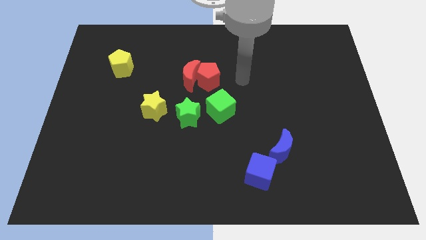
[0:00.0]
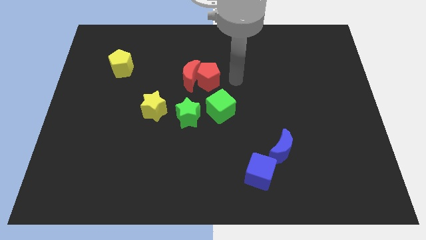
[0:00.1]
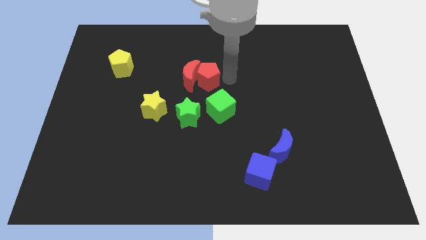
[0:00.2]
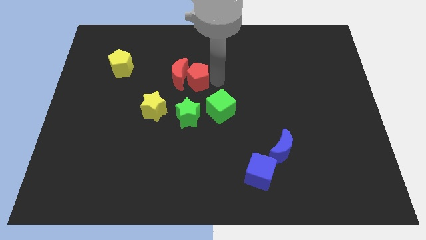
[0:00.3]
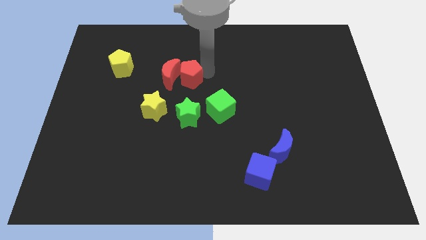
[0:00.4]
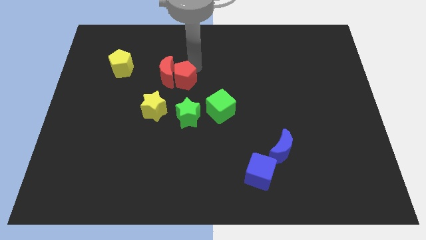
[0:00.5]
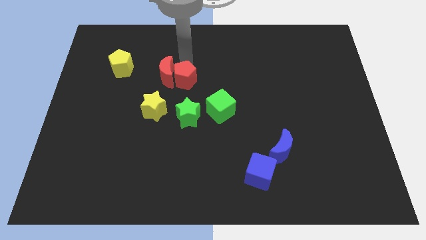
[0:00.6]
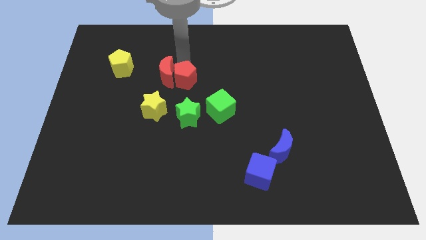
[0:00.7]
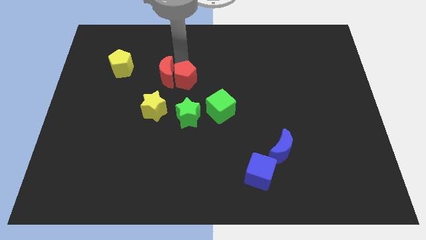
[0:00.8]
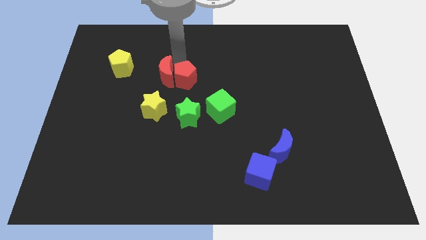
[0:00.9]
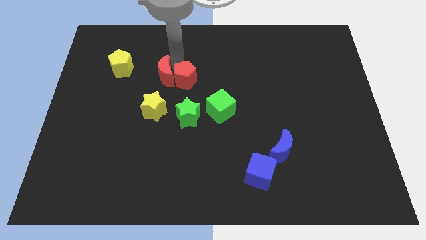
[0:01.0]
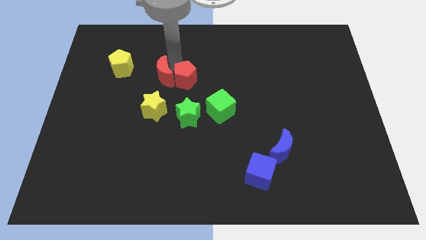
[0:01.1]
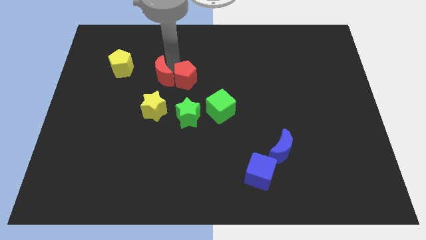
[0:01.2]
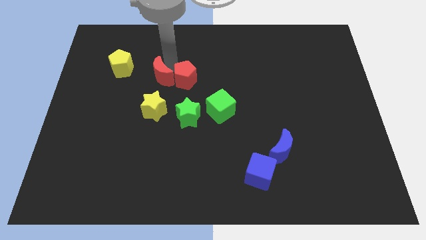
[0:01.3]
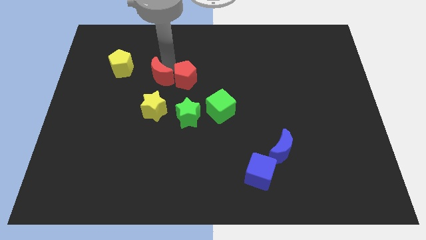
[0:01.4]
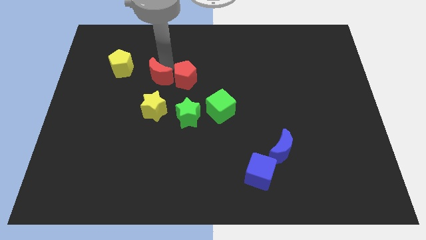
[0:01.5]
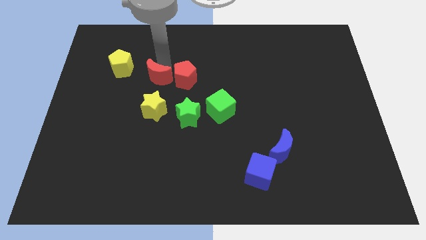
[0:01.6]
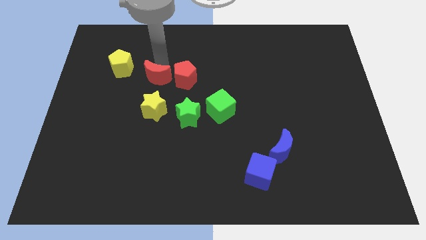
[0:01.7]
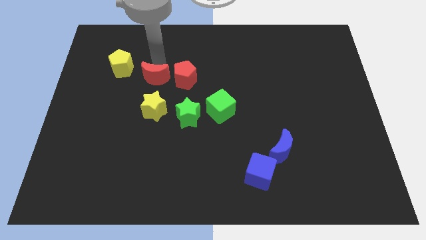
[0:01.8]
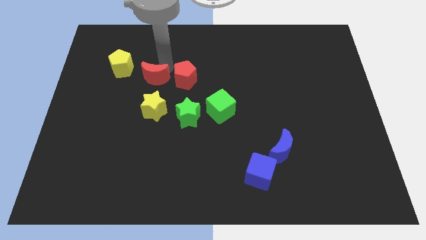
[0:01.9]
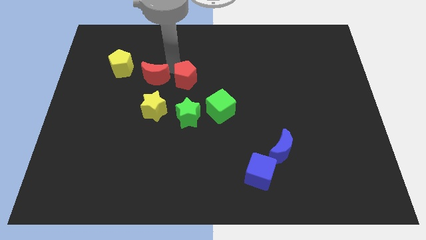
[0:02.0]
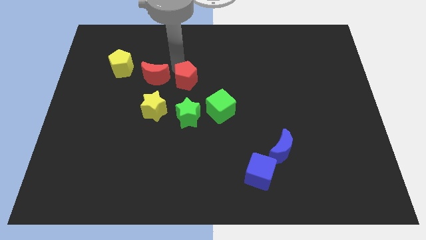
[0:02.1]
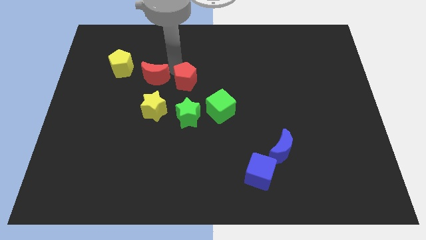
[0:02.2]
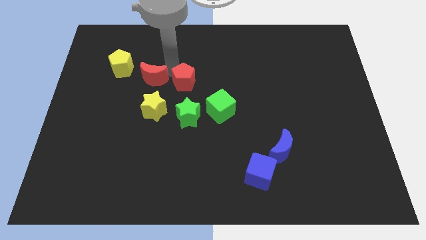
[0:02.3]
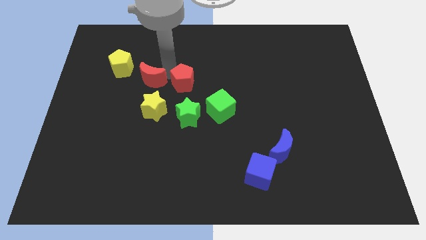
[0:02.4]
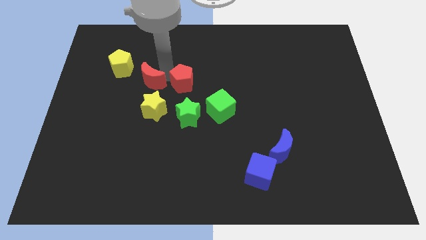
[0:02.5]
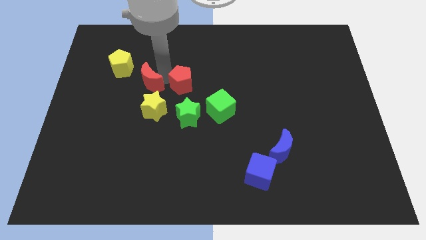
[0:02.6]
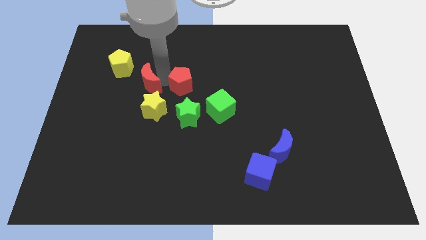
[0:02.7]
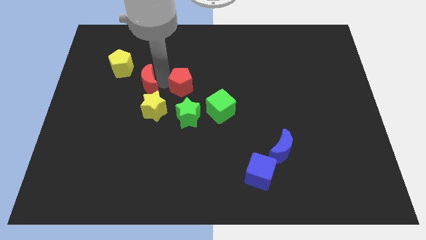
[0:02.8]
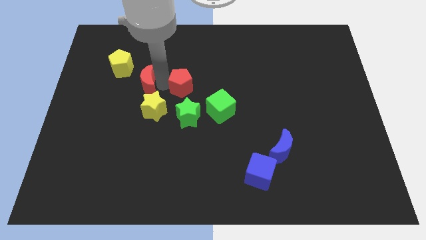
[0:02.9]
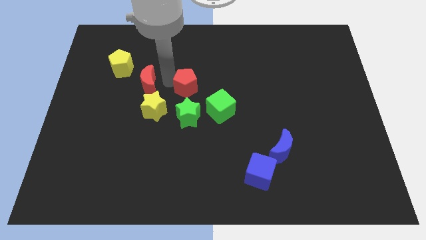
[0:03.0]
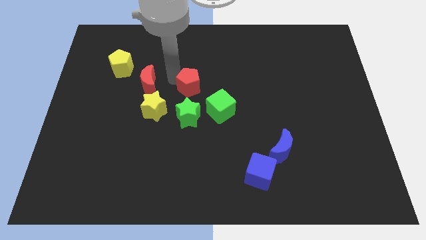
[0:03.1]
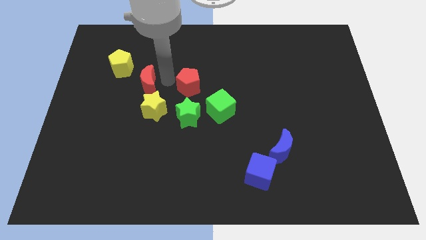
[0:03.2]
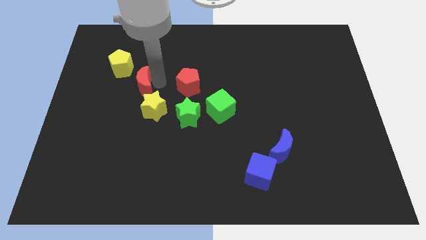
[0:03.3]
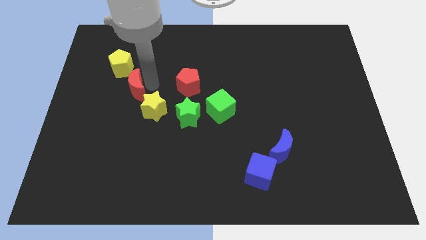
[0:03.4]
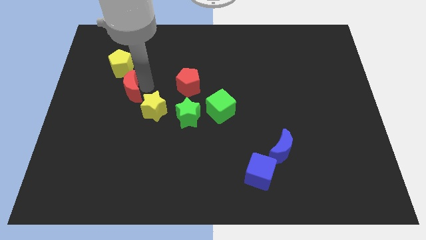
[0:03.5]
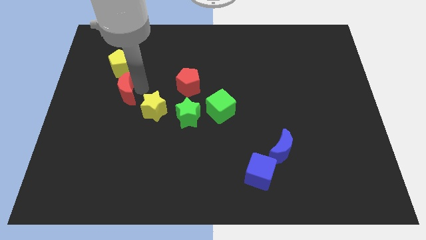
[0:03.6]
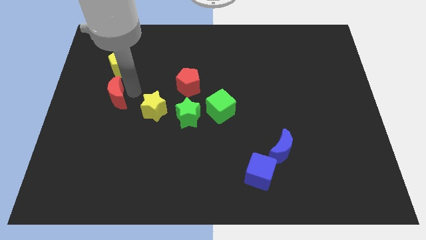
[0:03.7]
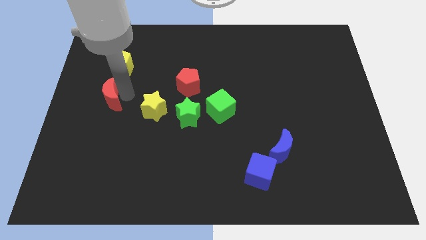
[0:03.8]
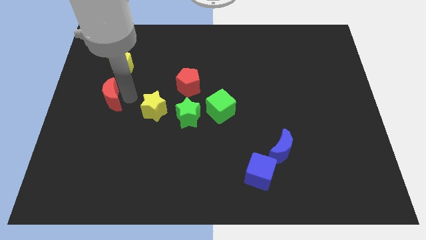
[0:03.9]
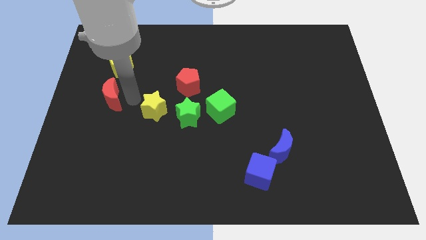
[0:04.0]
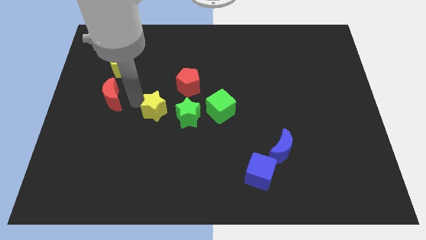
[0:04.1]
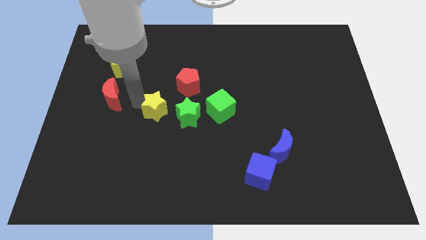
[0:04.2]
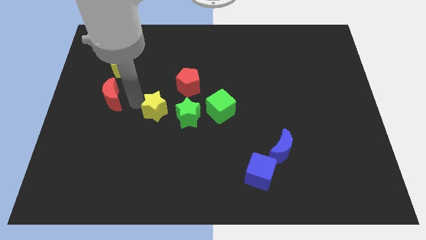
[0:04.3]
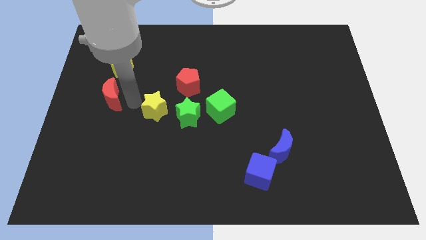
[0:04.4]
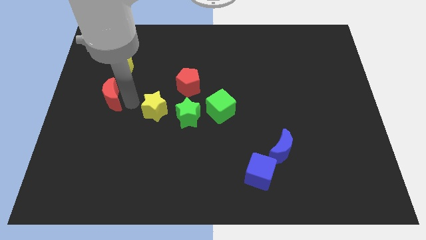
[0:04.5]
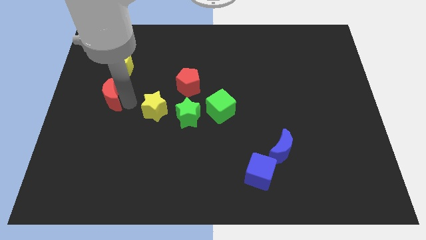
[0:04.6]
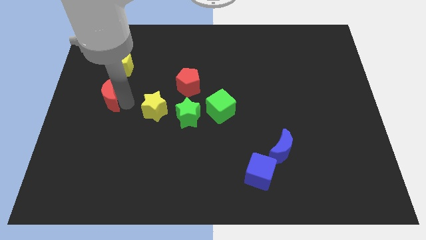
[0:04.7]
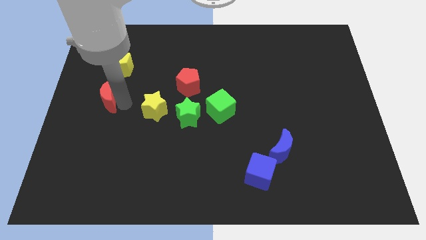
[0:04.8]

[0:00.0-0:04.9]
move the red moon to the left side

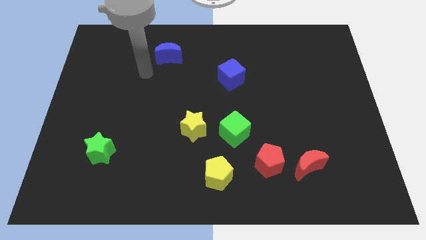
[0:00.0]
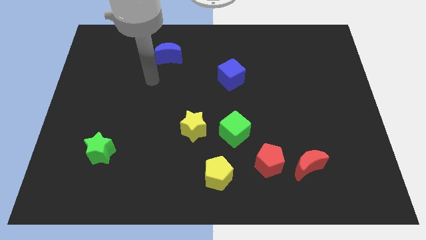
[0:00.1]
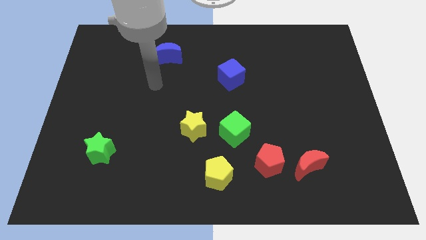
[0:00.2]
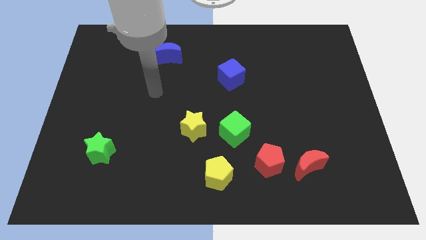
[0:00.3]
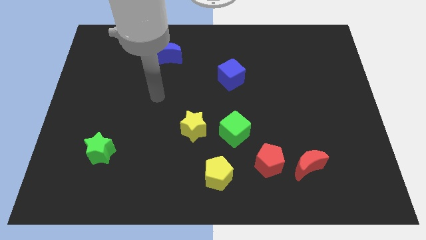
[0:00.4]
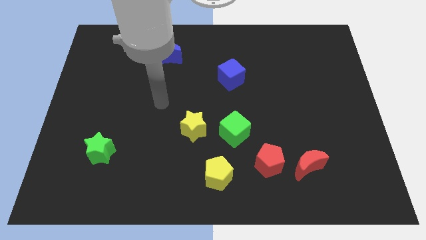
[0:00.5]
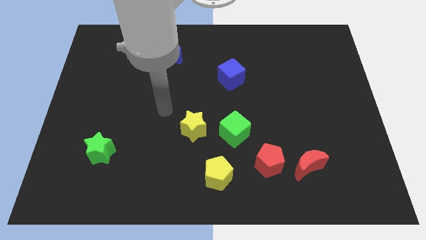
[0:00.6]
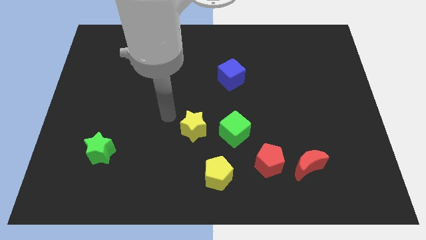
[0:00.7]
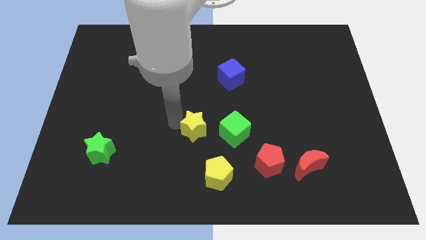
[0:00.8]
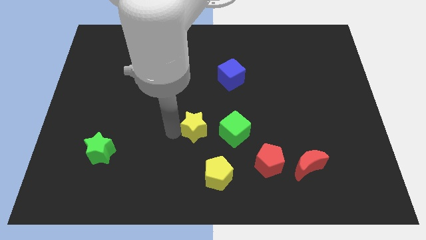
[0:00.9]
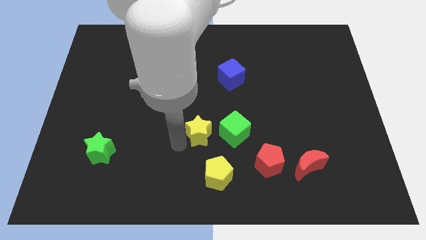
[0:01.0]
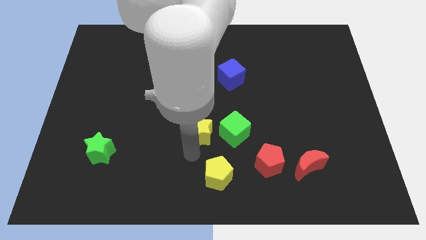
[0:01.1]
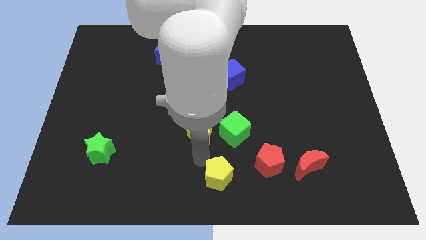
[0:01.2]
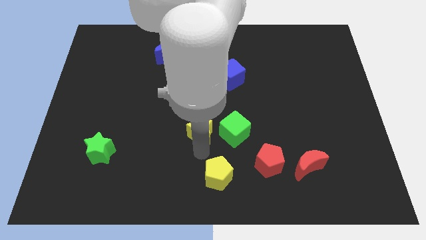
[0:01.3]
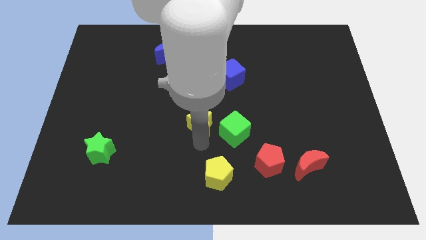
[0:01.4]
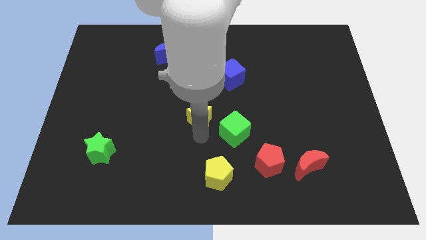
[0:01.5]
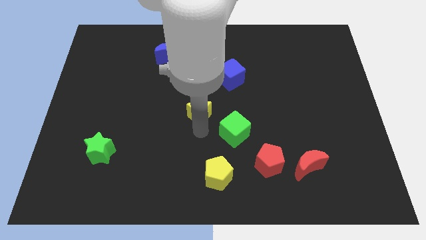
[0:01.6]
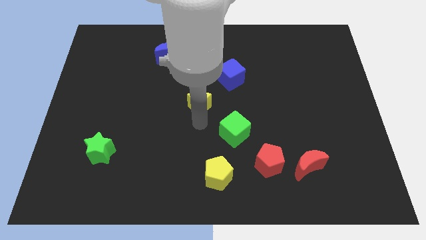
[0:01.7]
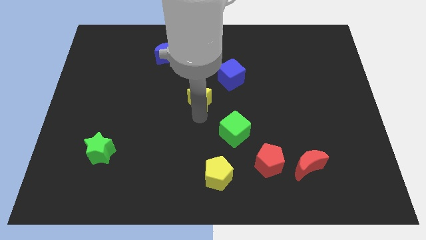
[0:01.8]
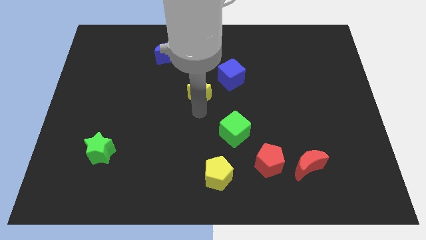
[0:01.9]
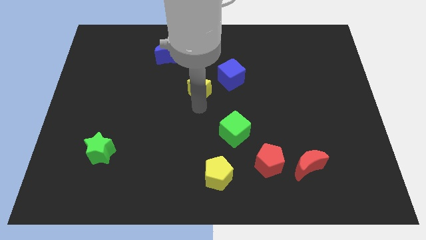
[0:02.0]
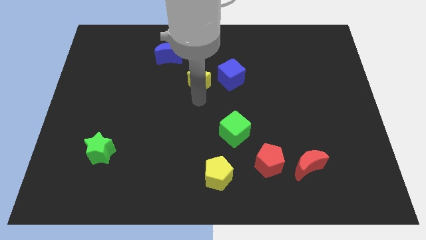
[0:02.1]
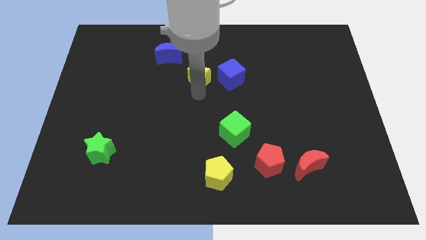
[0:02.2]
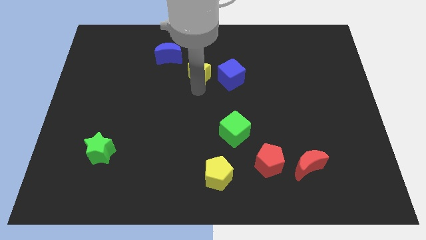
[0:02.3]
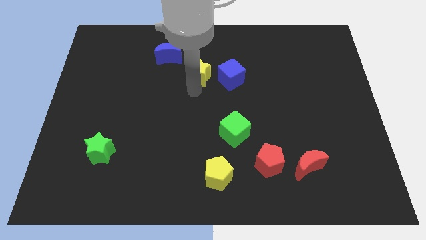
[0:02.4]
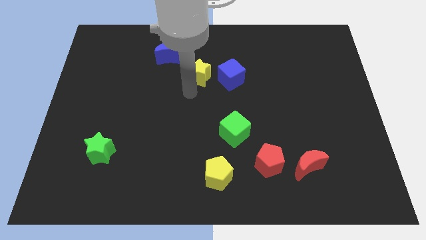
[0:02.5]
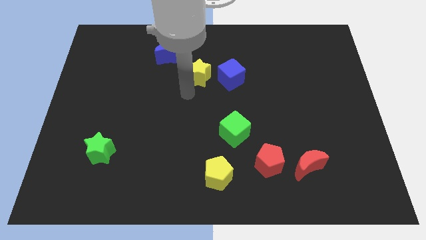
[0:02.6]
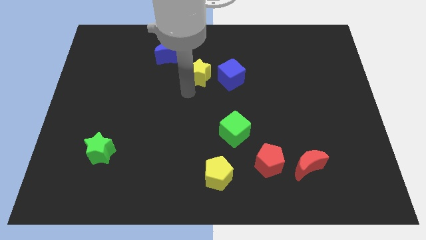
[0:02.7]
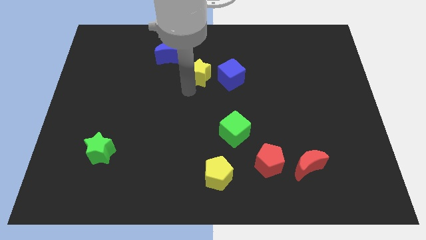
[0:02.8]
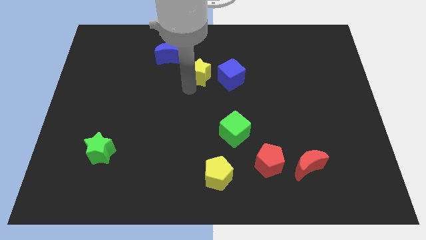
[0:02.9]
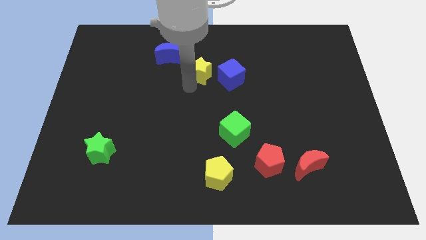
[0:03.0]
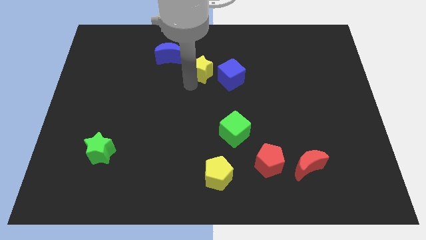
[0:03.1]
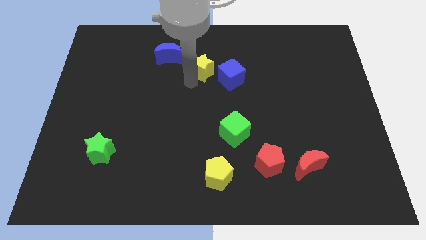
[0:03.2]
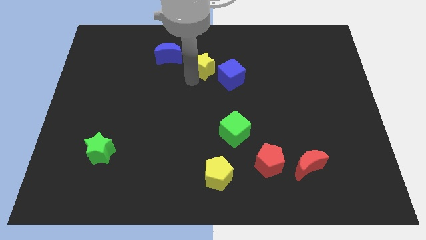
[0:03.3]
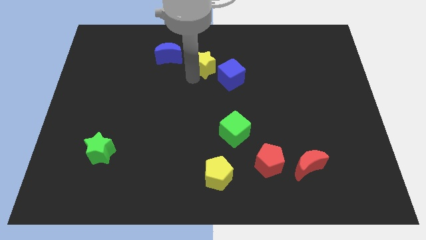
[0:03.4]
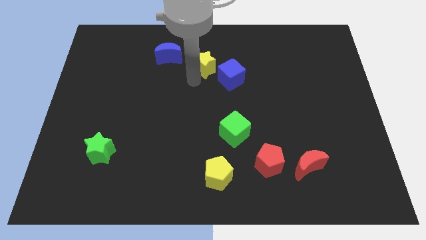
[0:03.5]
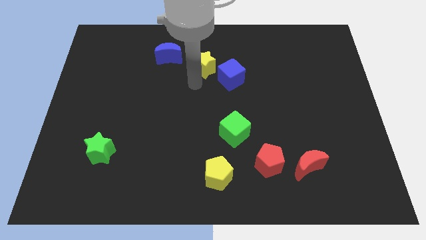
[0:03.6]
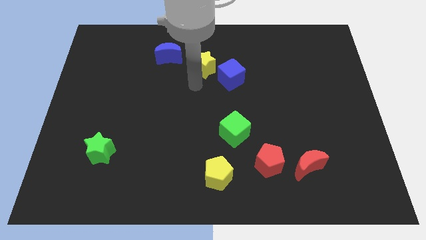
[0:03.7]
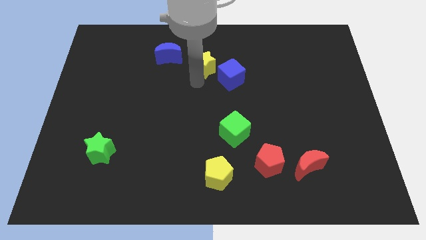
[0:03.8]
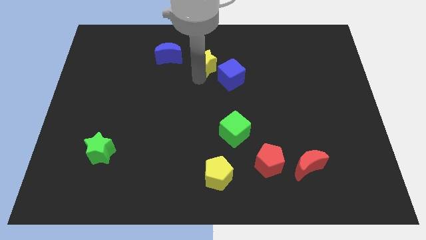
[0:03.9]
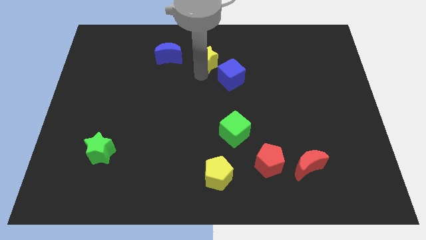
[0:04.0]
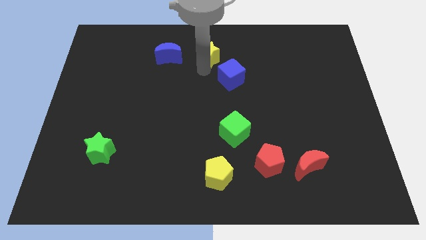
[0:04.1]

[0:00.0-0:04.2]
move the yellow star to the top side
